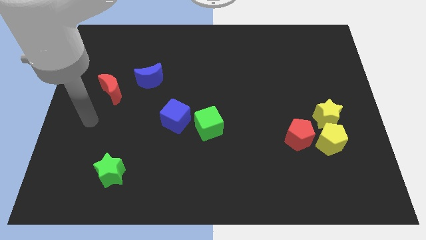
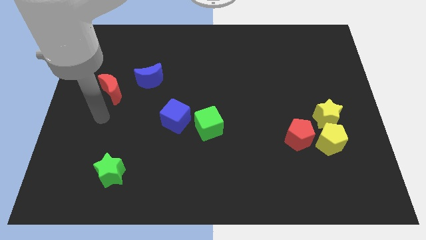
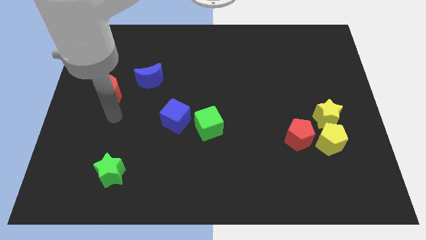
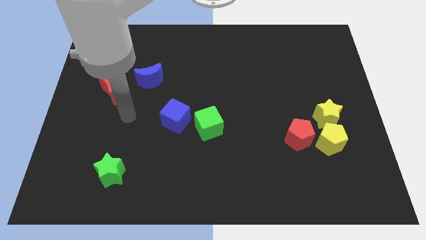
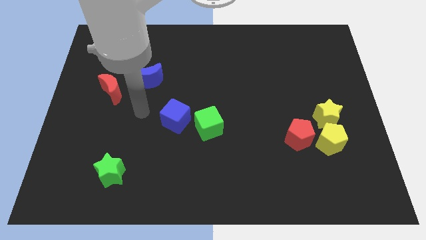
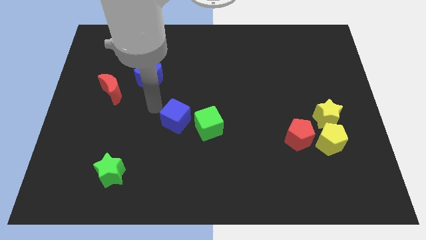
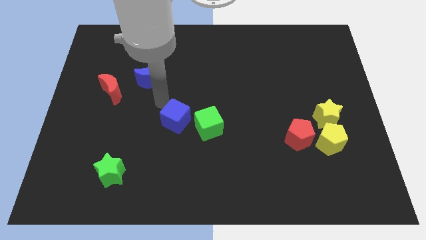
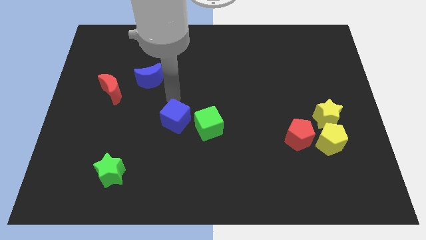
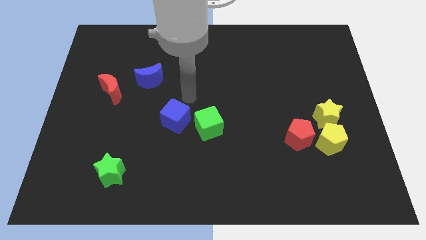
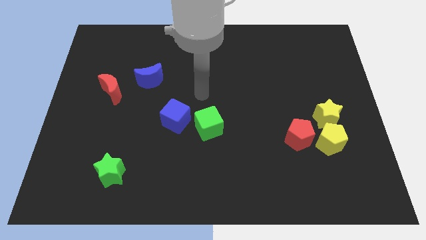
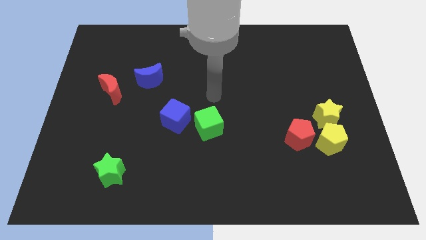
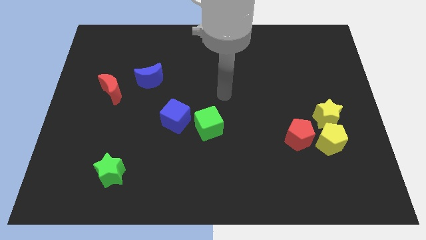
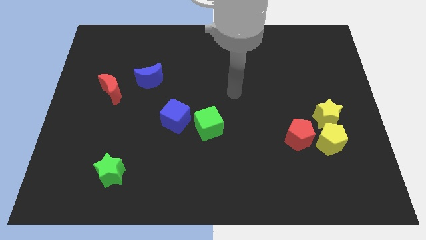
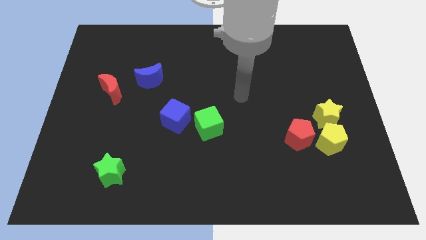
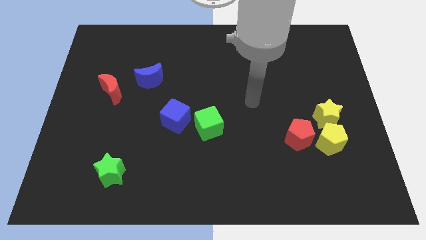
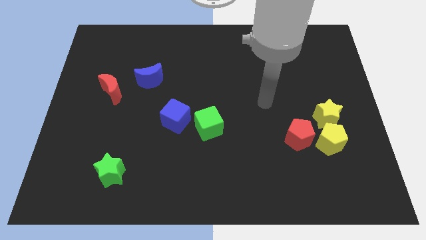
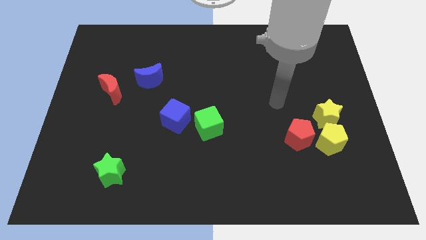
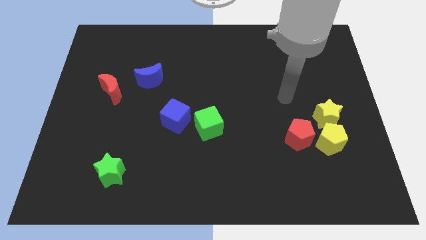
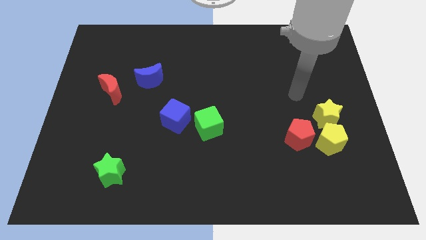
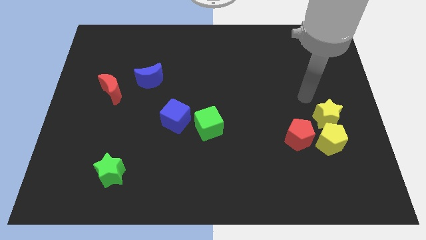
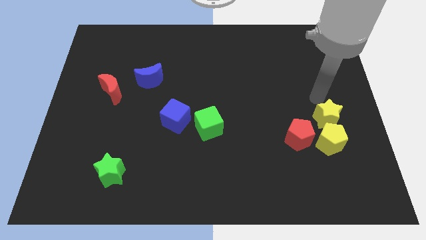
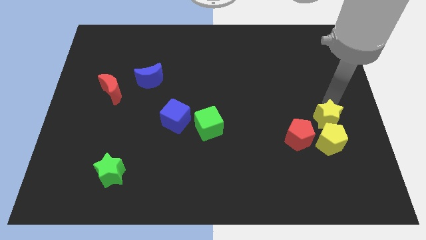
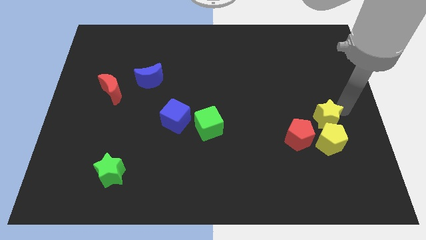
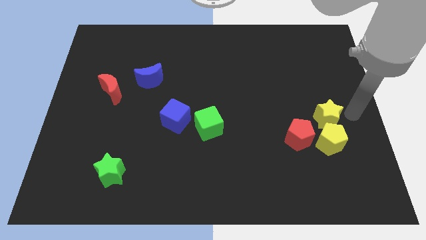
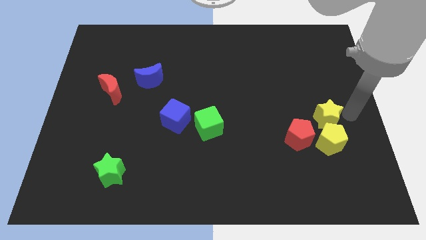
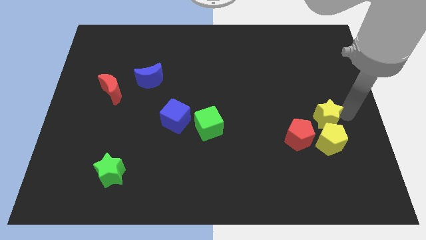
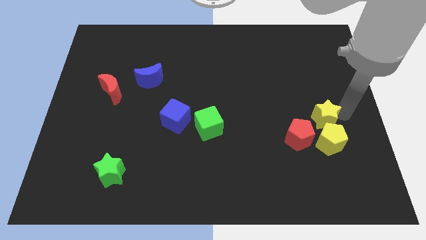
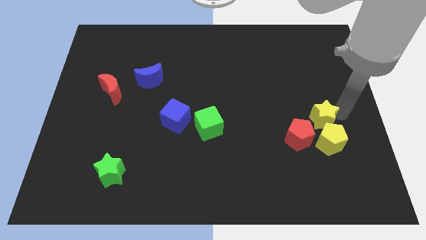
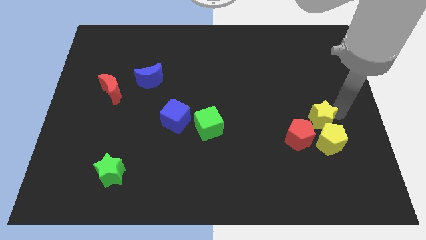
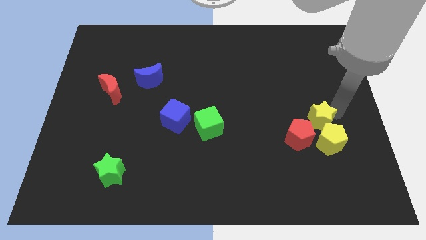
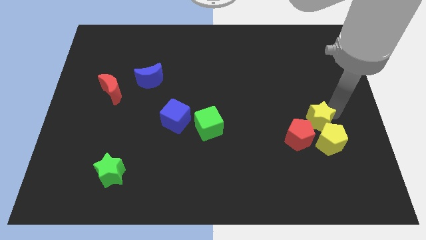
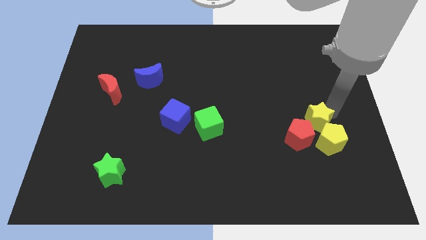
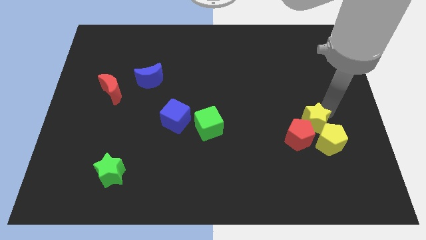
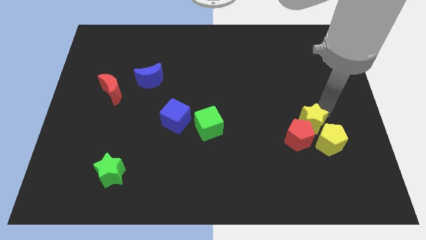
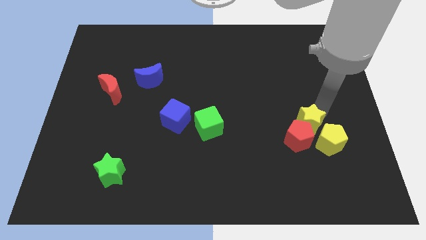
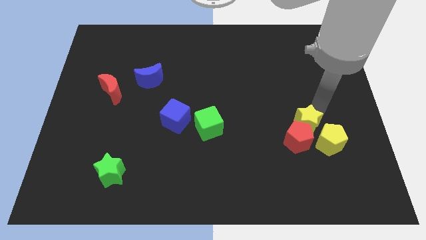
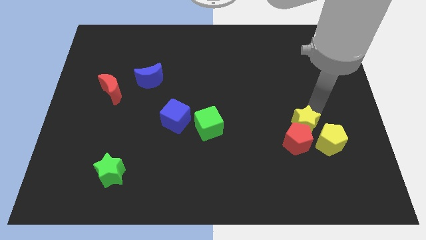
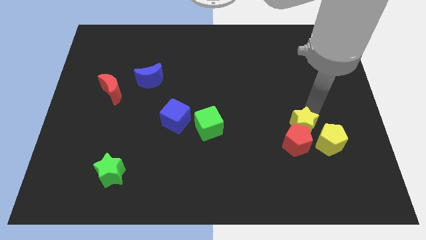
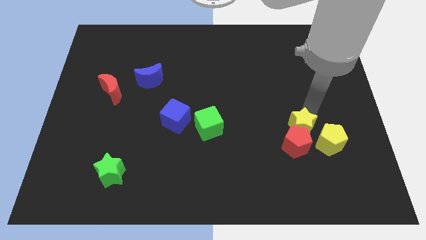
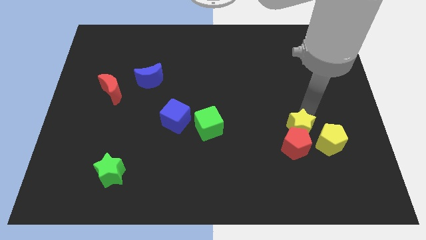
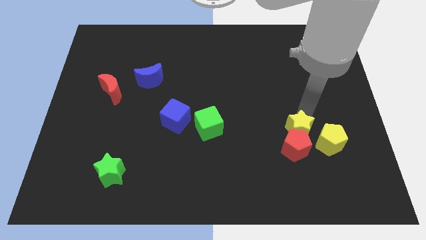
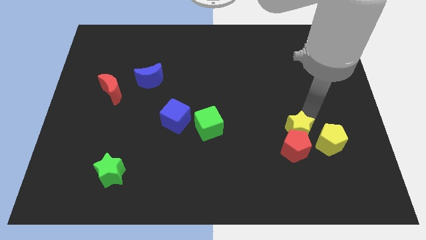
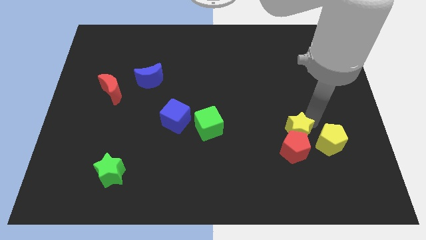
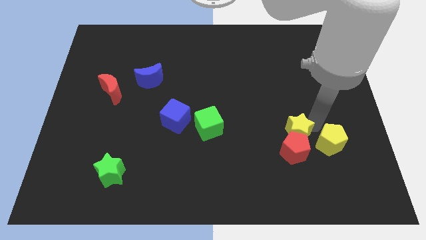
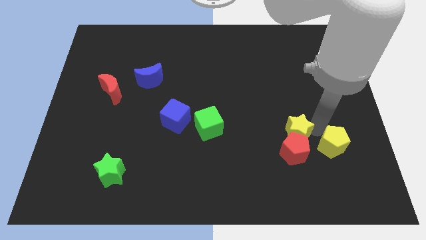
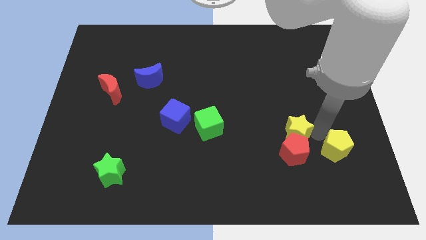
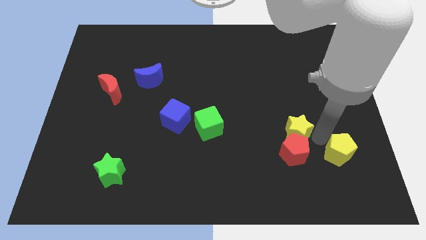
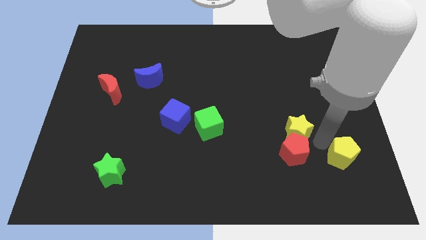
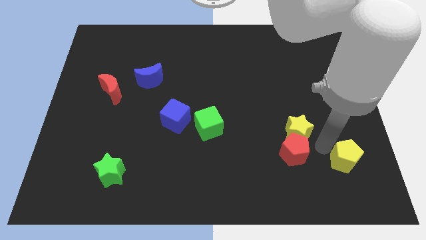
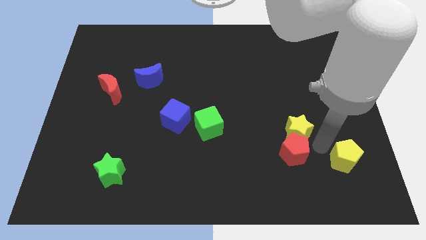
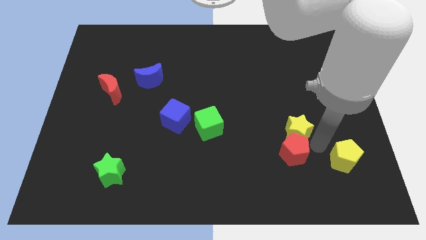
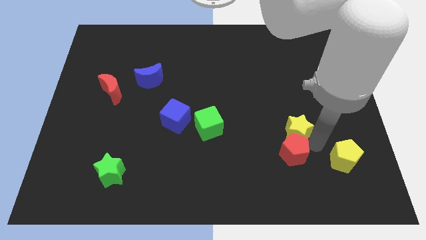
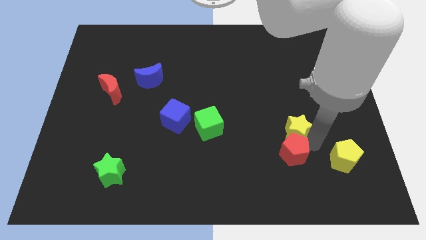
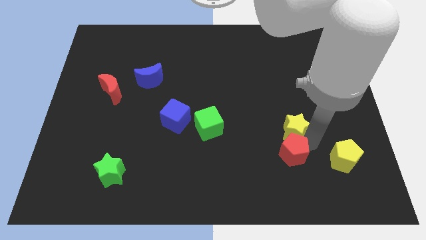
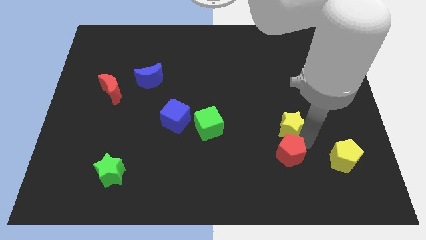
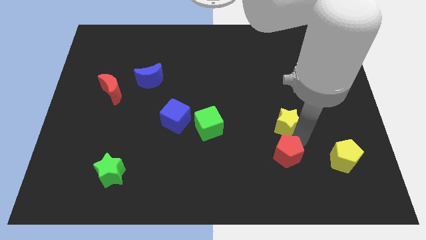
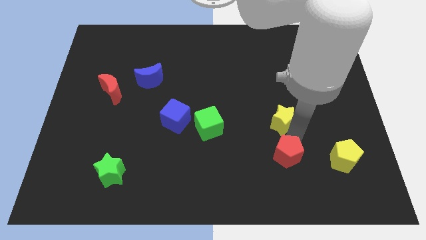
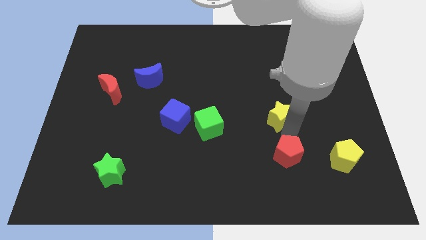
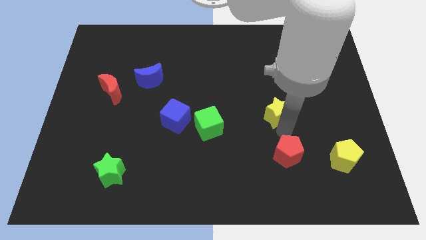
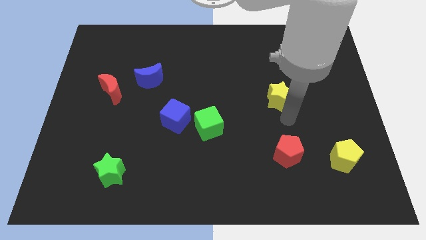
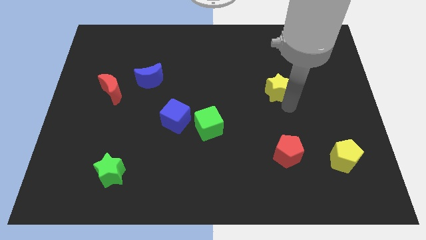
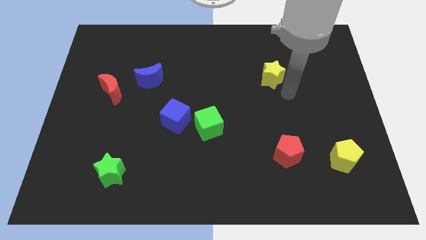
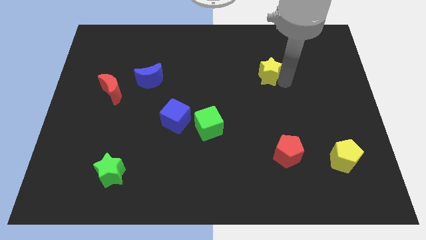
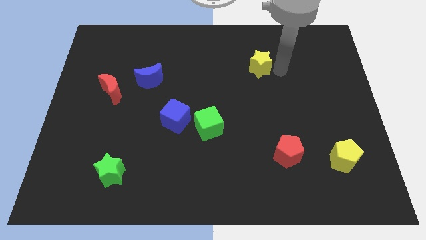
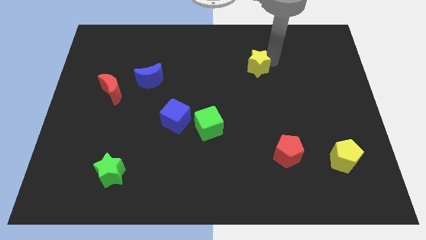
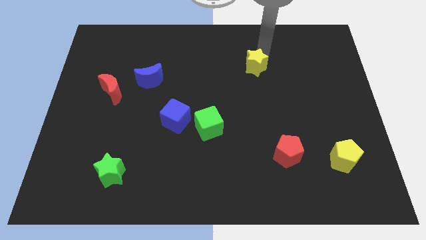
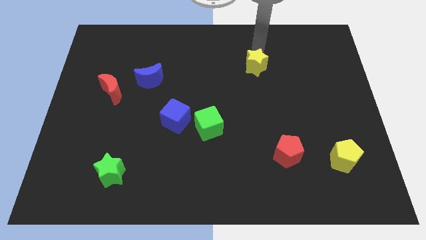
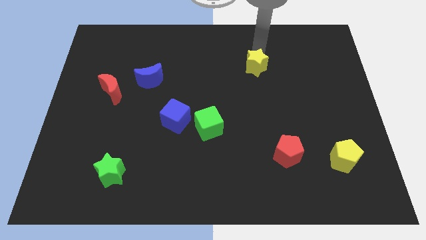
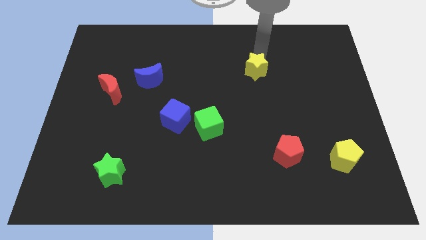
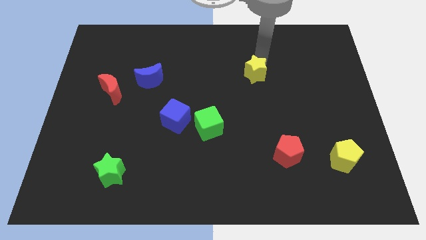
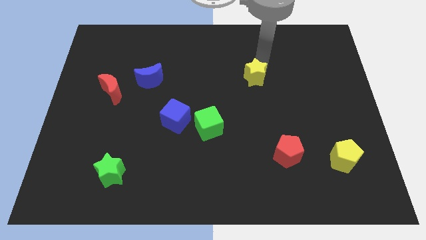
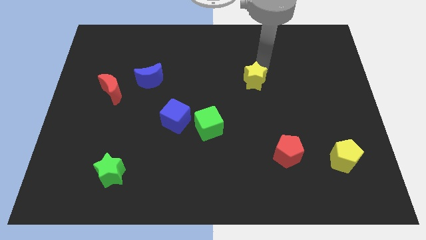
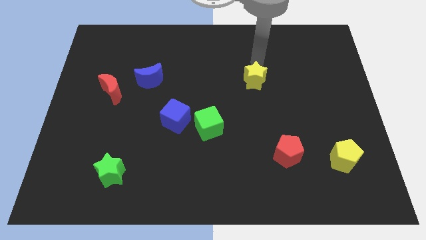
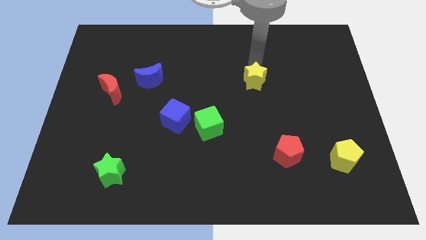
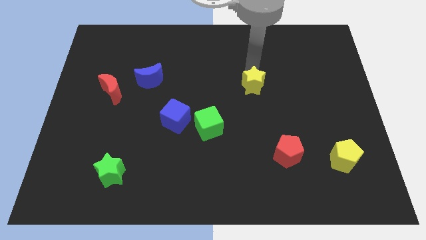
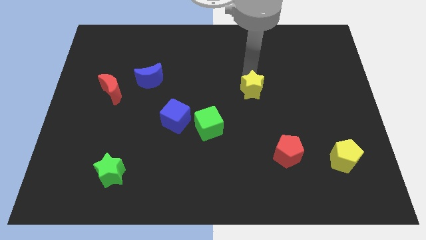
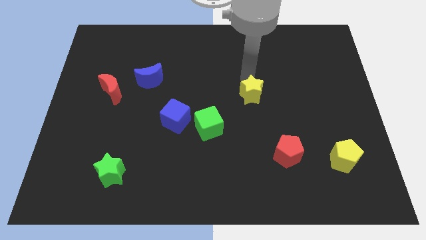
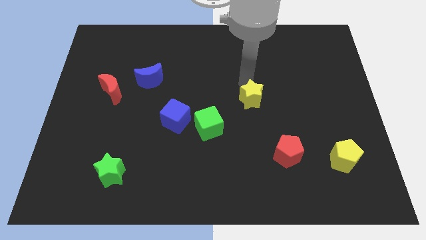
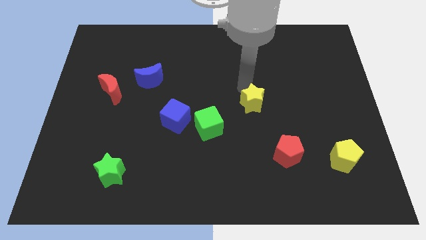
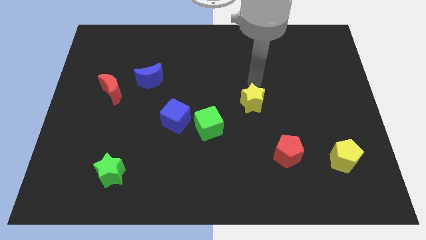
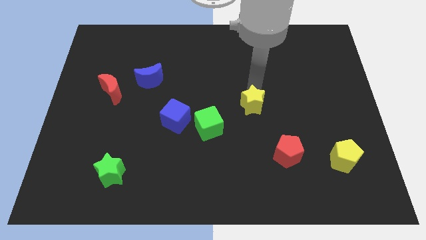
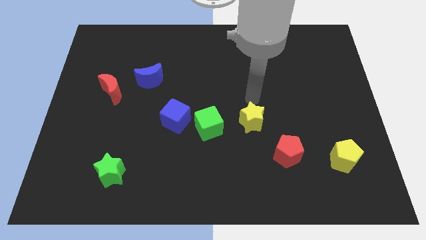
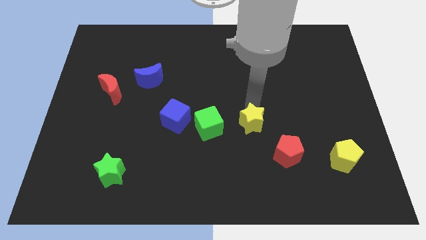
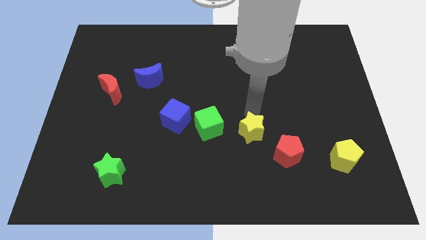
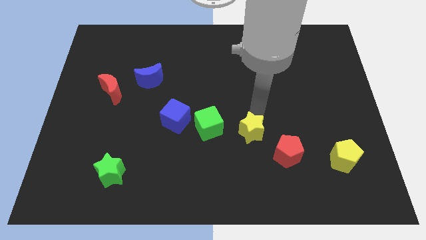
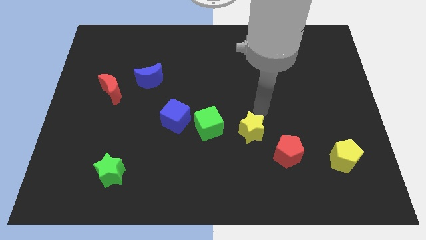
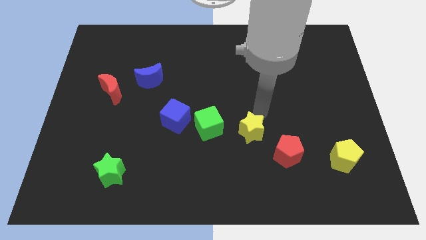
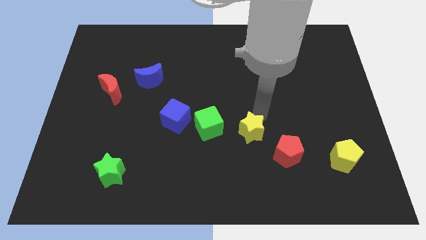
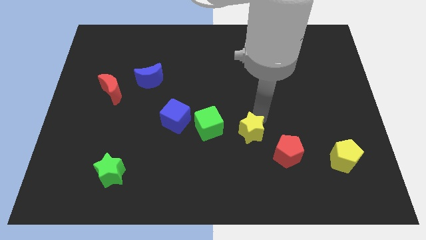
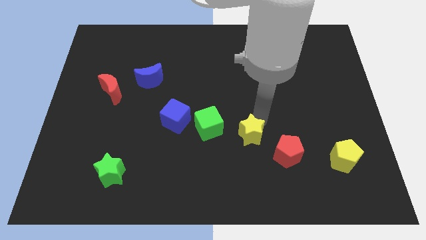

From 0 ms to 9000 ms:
put the yellow star to the left of the red pentagon
